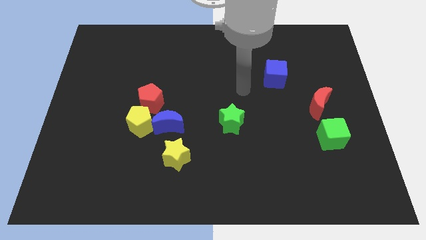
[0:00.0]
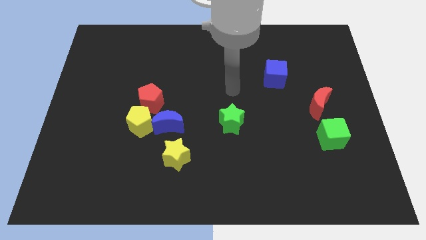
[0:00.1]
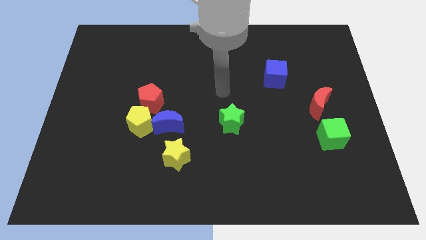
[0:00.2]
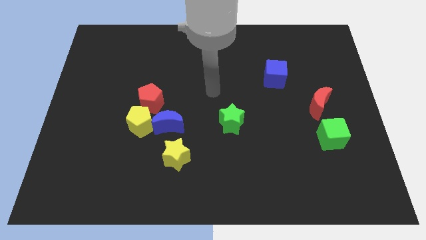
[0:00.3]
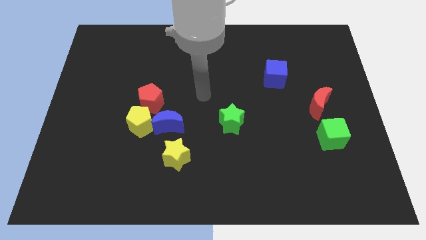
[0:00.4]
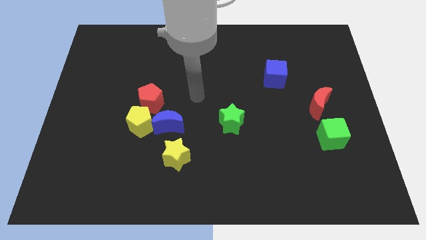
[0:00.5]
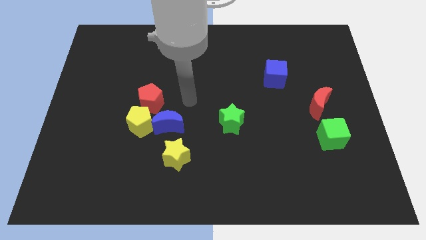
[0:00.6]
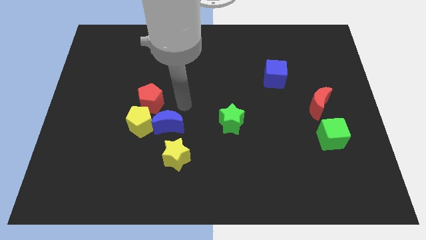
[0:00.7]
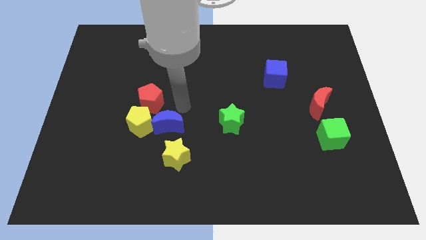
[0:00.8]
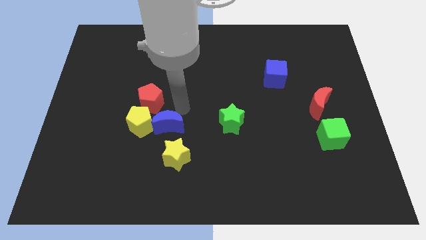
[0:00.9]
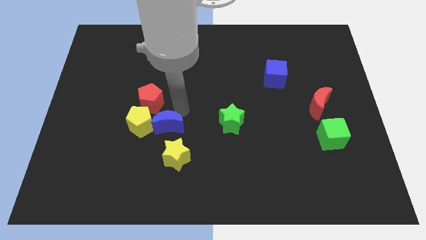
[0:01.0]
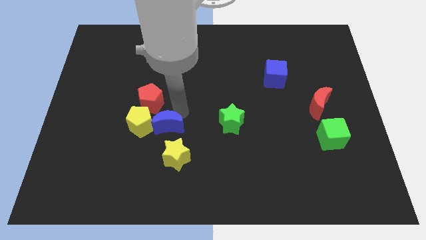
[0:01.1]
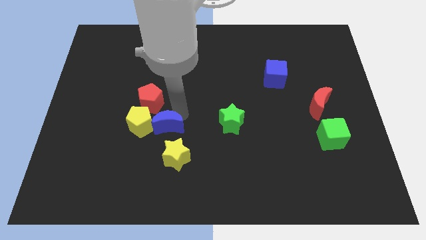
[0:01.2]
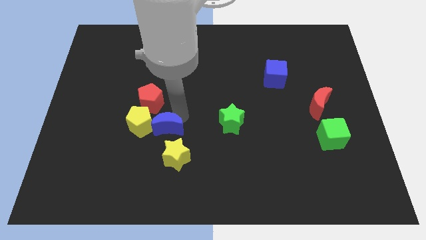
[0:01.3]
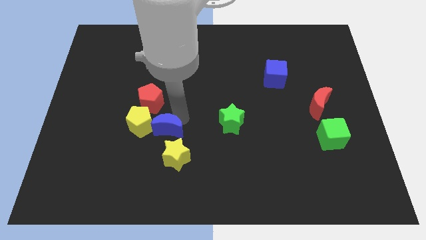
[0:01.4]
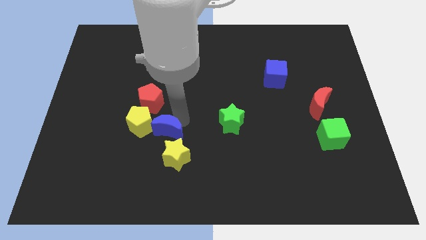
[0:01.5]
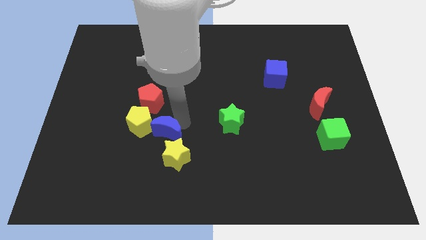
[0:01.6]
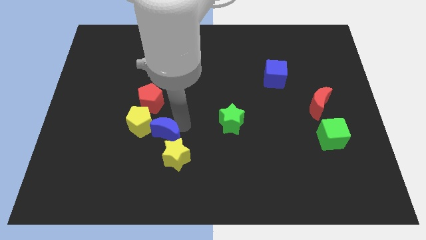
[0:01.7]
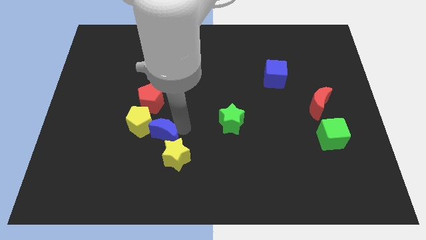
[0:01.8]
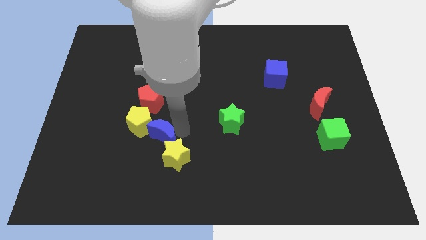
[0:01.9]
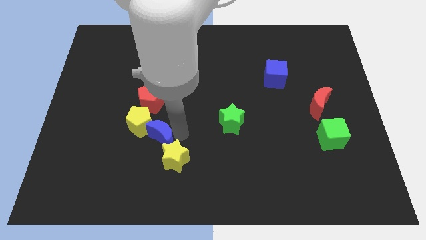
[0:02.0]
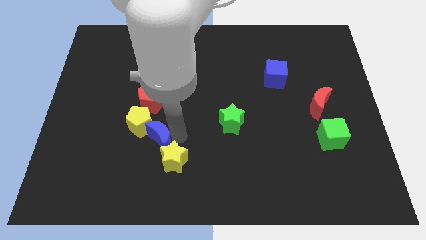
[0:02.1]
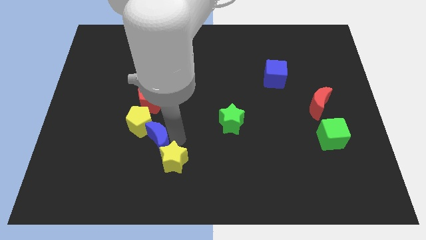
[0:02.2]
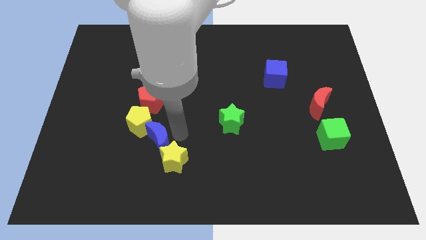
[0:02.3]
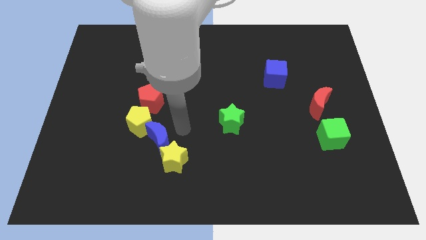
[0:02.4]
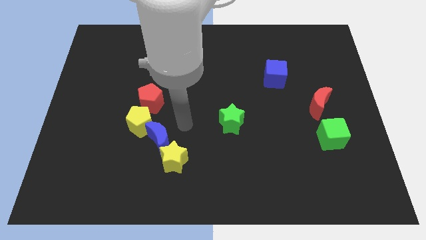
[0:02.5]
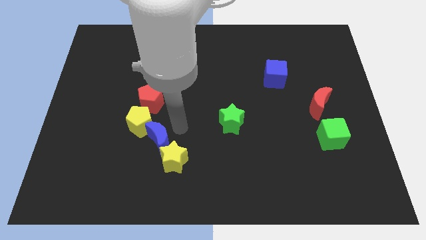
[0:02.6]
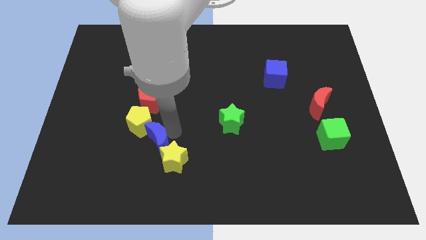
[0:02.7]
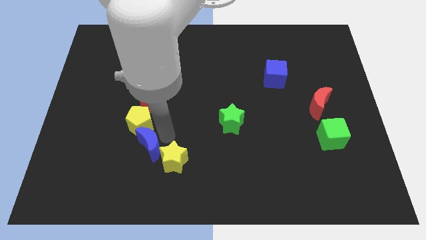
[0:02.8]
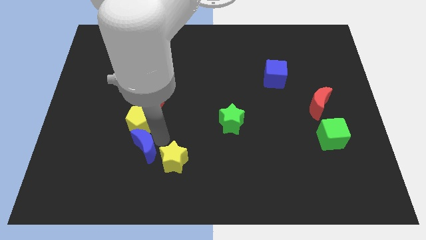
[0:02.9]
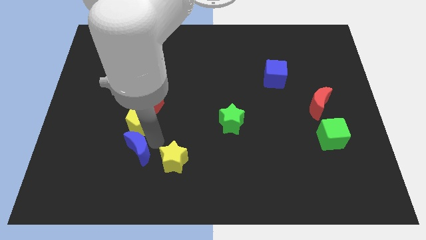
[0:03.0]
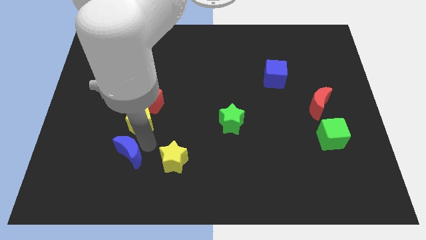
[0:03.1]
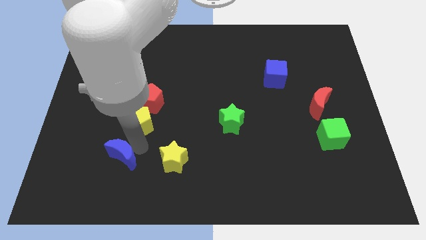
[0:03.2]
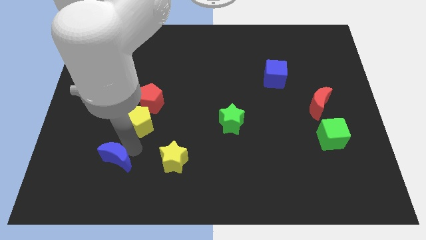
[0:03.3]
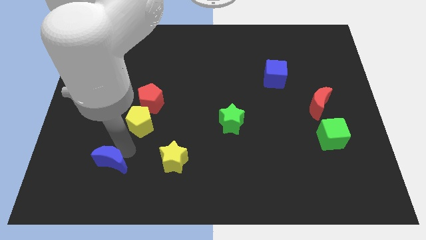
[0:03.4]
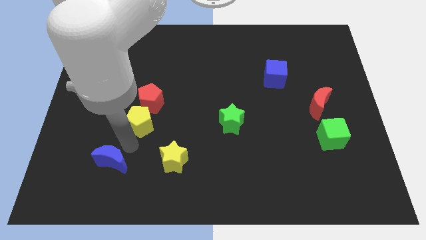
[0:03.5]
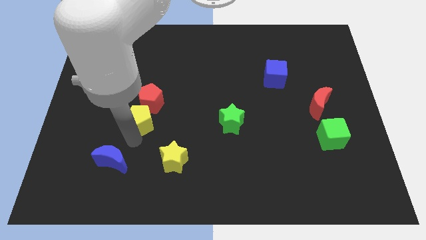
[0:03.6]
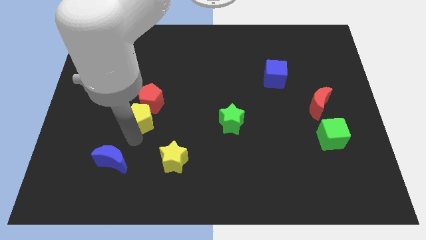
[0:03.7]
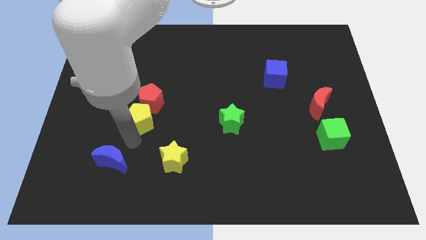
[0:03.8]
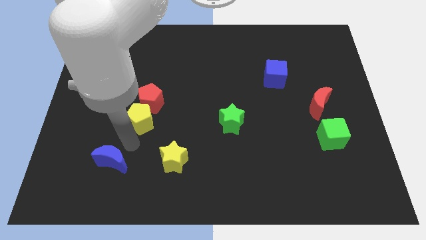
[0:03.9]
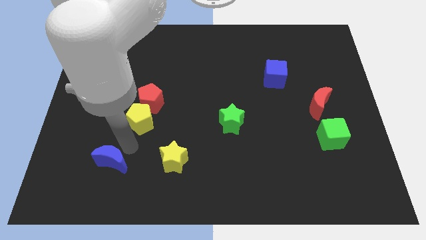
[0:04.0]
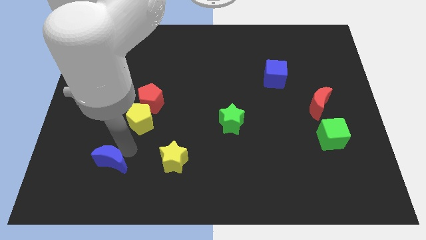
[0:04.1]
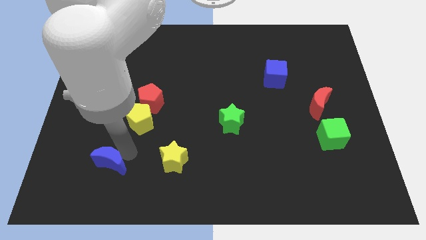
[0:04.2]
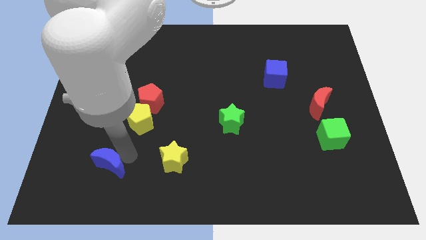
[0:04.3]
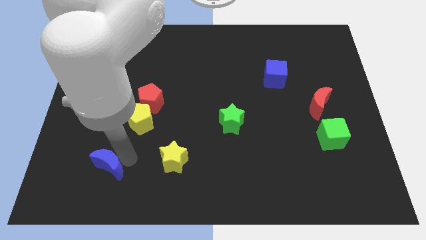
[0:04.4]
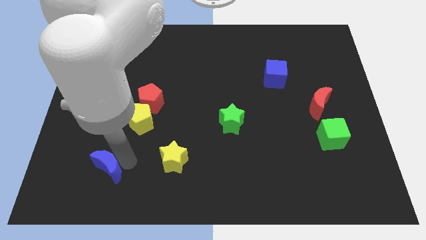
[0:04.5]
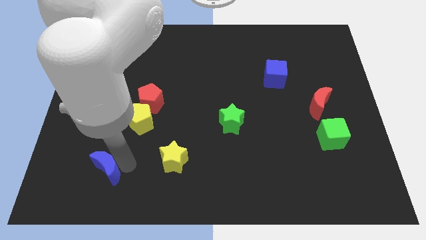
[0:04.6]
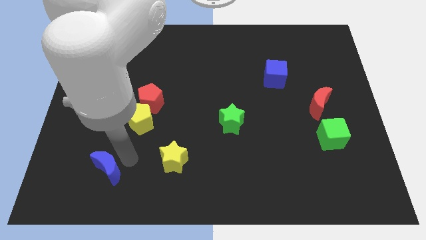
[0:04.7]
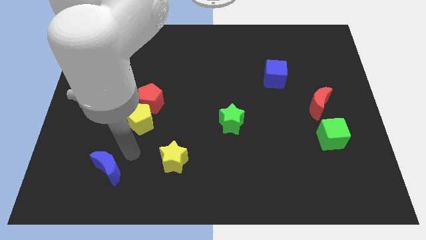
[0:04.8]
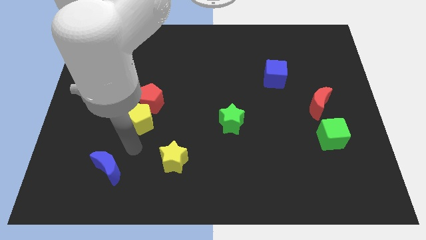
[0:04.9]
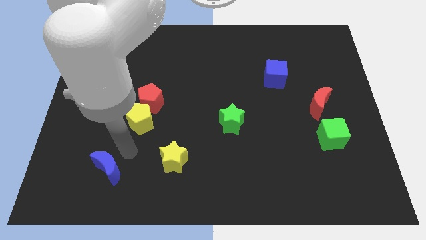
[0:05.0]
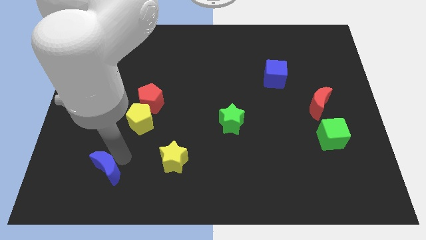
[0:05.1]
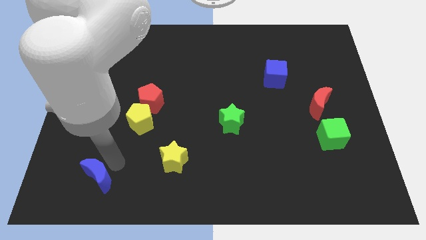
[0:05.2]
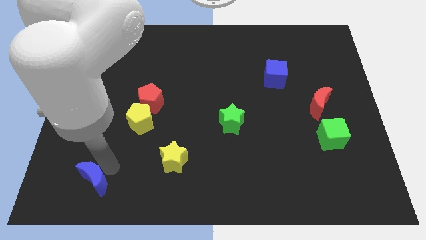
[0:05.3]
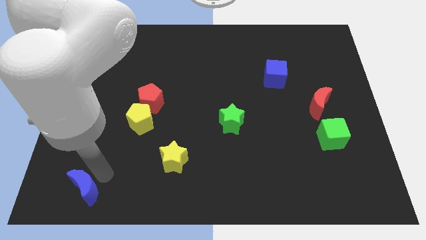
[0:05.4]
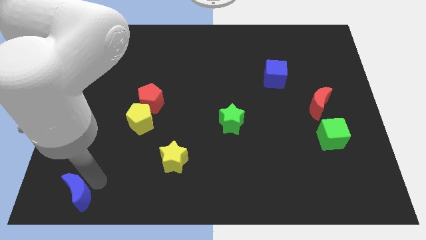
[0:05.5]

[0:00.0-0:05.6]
put the blue moon to the bottom left corner
